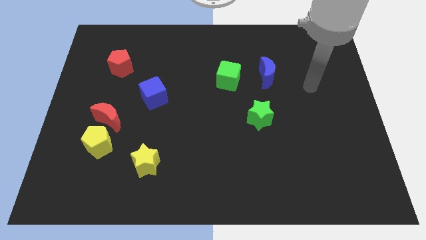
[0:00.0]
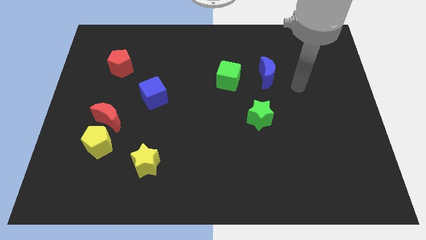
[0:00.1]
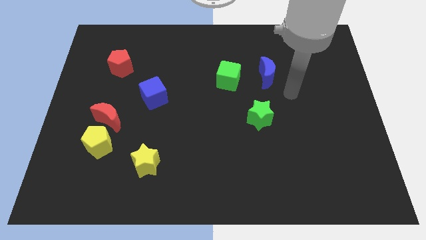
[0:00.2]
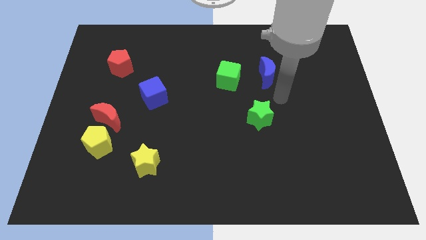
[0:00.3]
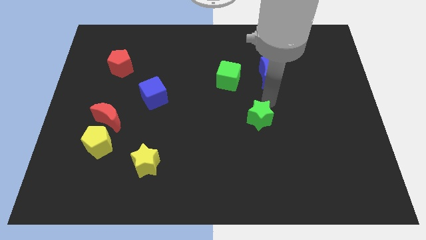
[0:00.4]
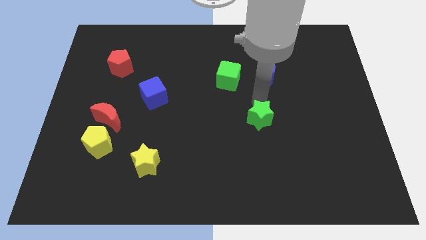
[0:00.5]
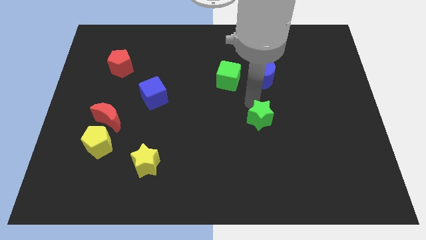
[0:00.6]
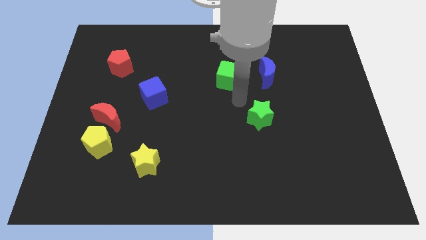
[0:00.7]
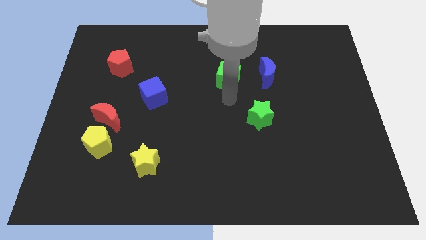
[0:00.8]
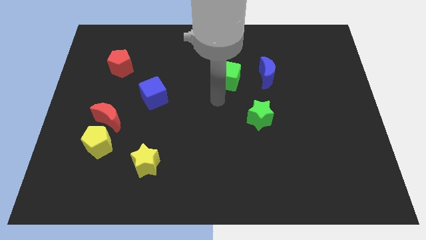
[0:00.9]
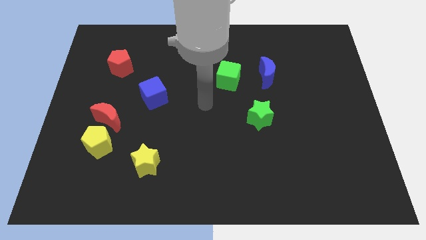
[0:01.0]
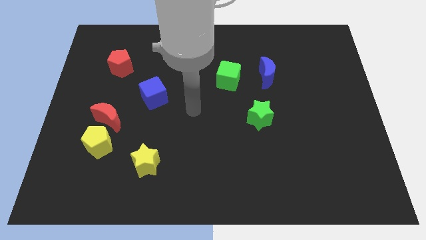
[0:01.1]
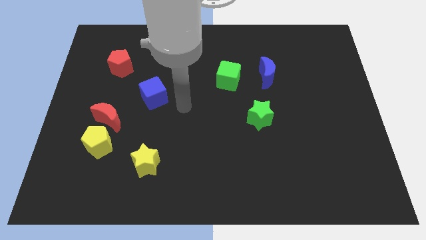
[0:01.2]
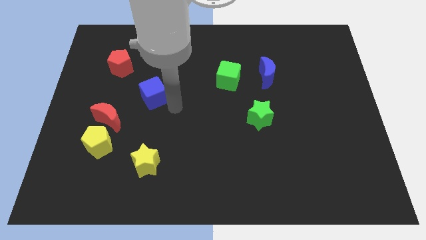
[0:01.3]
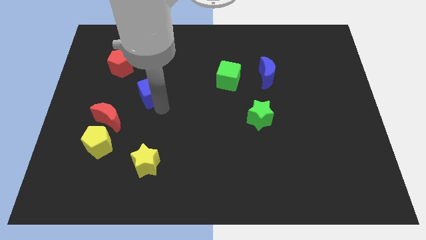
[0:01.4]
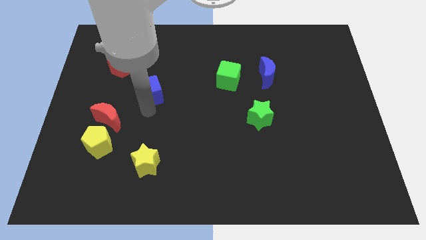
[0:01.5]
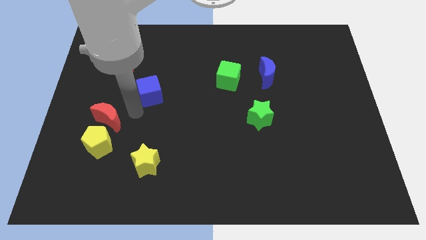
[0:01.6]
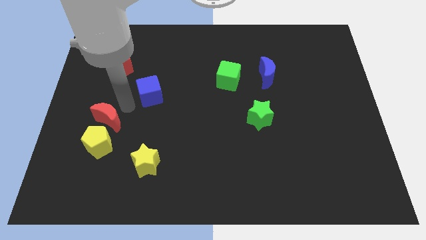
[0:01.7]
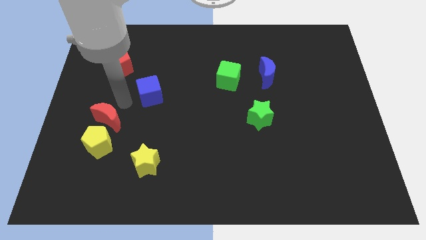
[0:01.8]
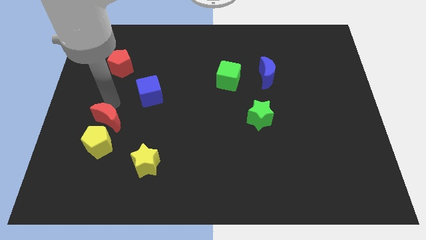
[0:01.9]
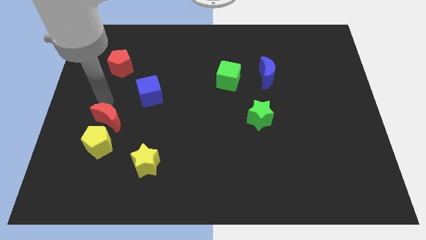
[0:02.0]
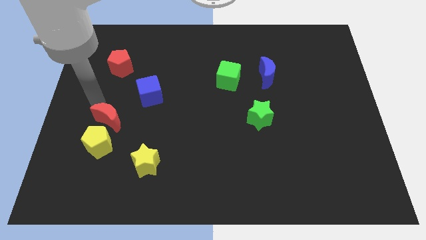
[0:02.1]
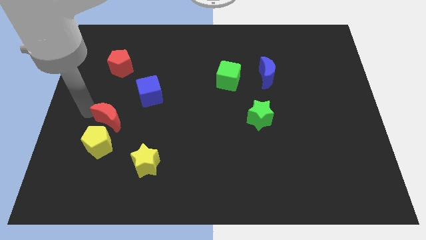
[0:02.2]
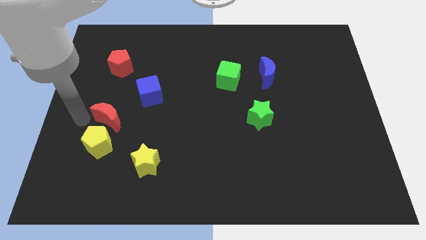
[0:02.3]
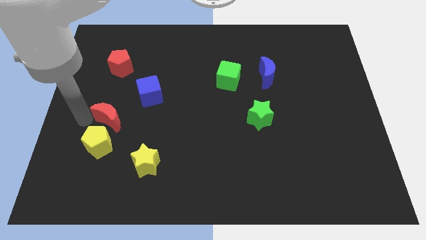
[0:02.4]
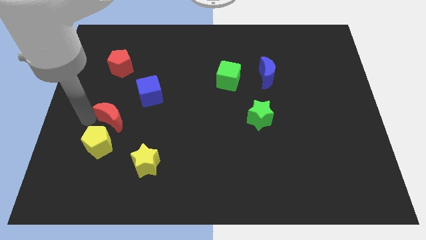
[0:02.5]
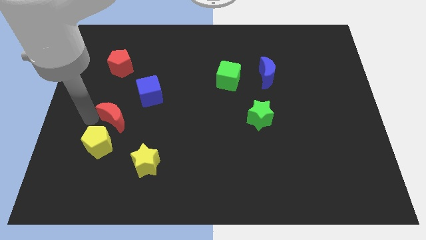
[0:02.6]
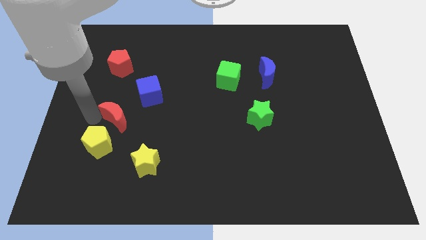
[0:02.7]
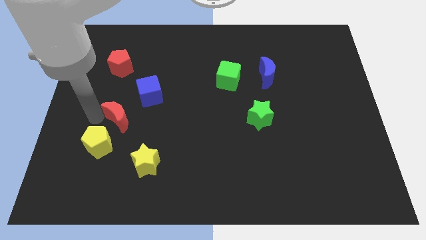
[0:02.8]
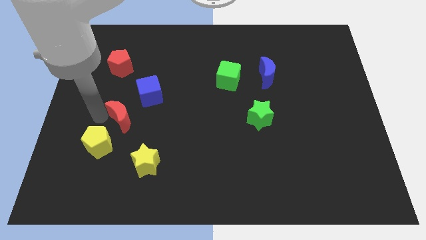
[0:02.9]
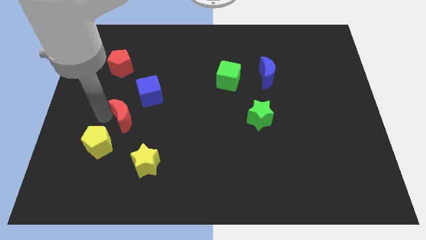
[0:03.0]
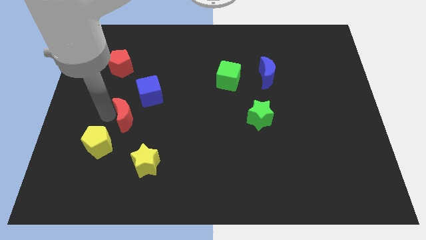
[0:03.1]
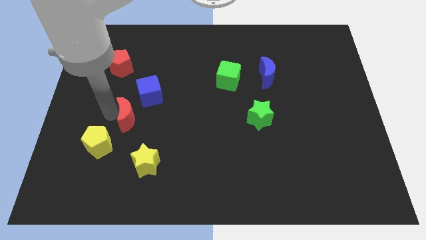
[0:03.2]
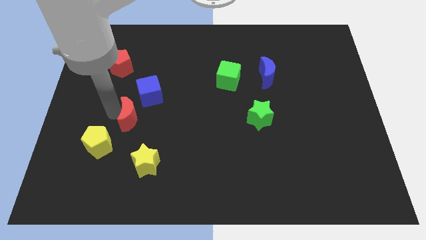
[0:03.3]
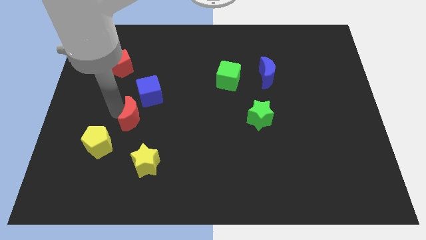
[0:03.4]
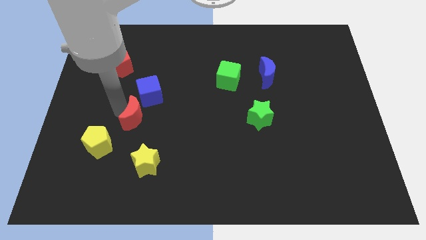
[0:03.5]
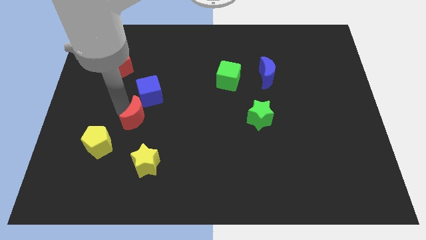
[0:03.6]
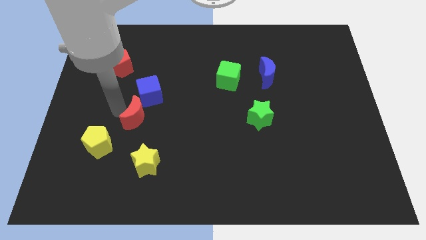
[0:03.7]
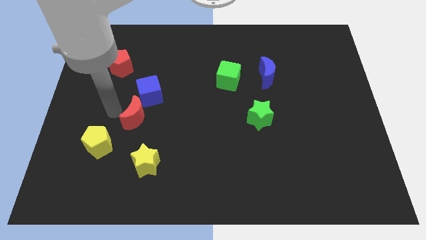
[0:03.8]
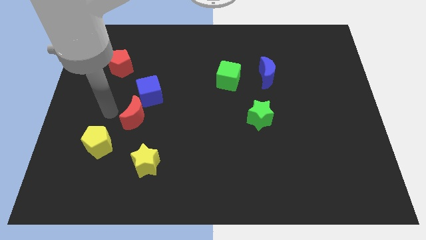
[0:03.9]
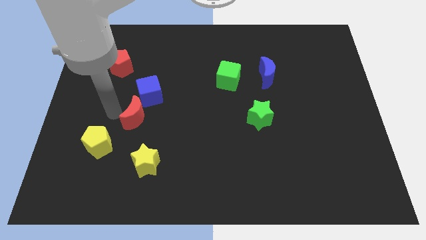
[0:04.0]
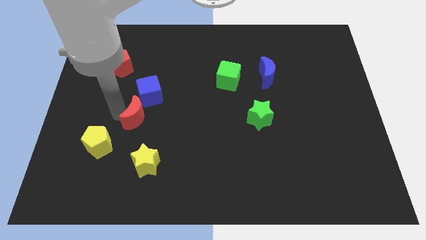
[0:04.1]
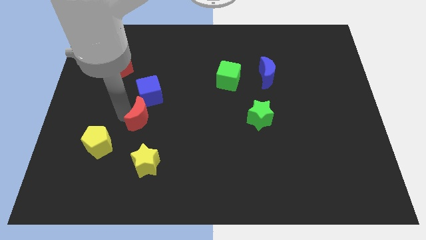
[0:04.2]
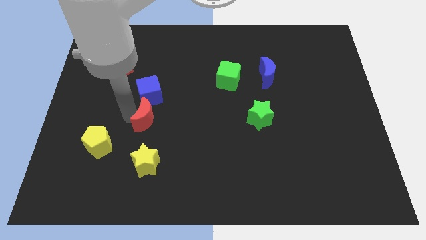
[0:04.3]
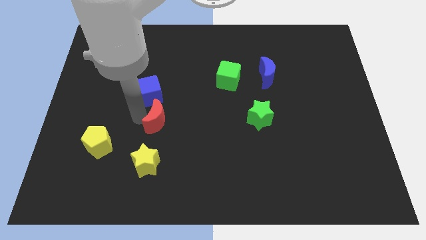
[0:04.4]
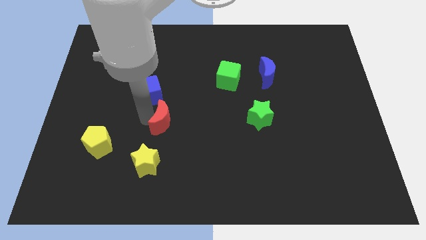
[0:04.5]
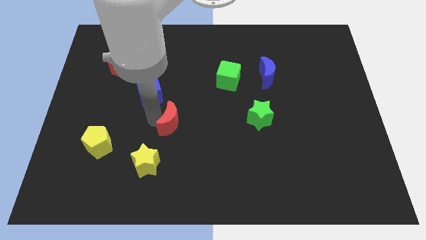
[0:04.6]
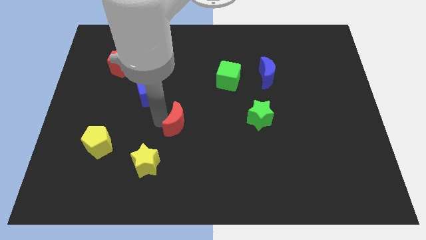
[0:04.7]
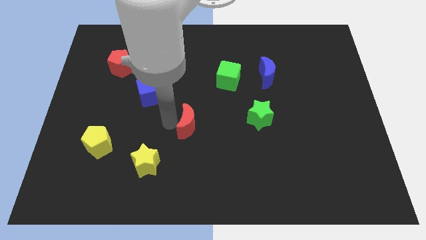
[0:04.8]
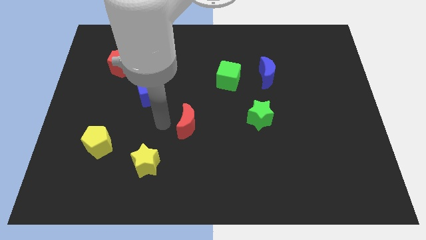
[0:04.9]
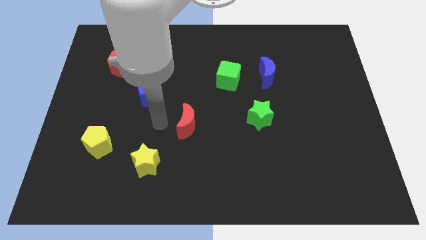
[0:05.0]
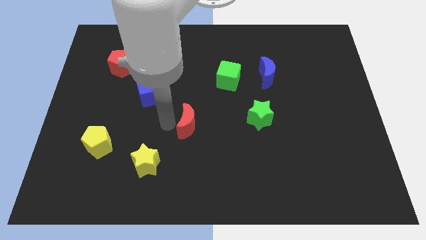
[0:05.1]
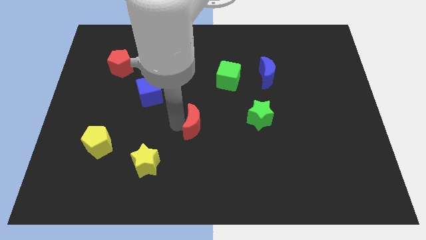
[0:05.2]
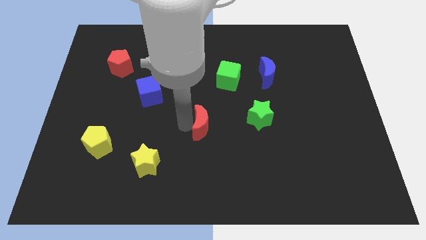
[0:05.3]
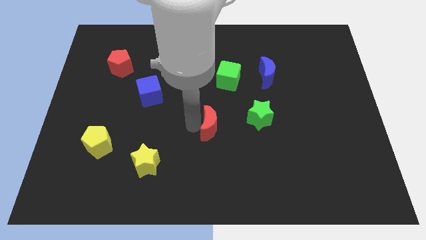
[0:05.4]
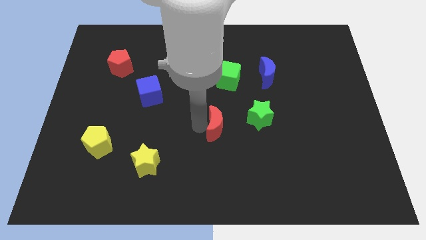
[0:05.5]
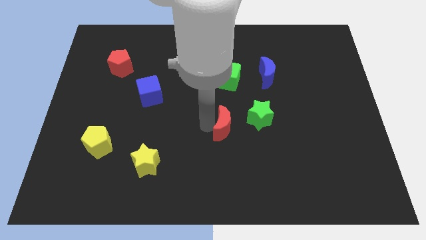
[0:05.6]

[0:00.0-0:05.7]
put the red moon diagonally down and to the left of the green star

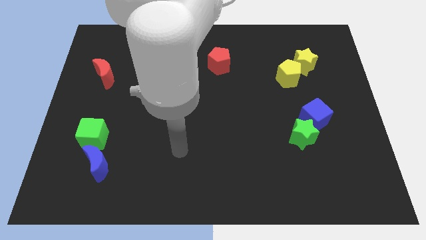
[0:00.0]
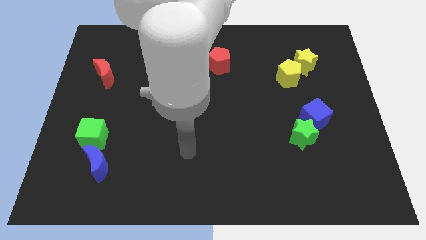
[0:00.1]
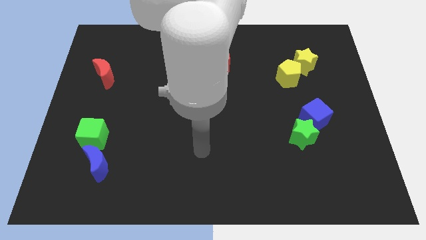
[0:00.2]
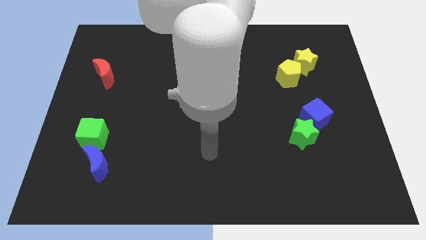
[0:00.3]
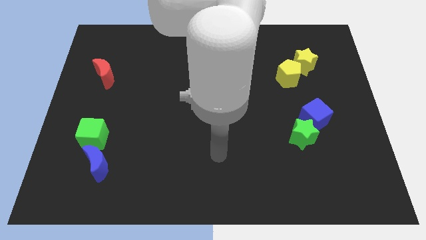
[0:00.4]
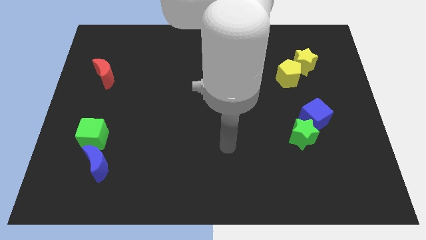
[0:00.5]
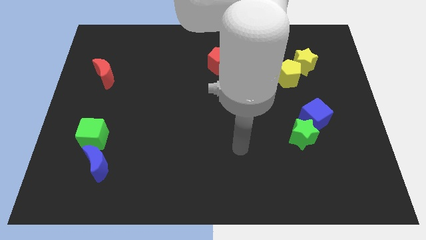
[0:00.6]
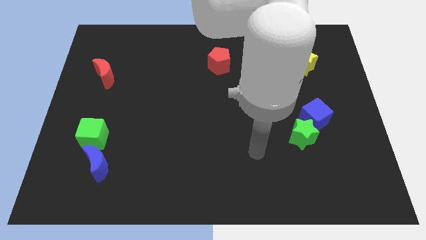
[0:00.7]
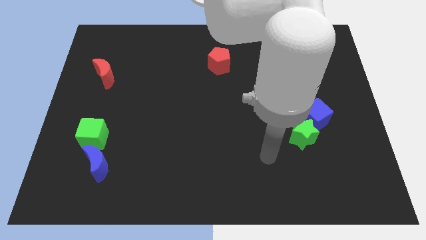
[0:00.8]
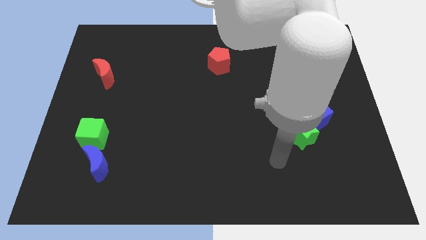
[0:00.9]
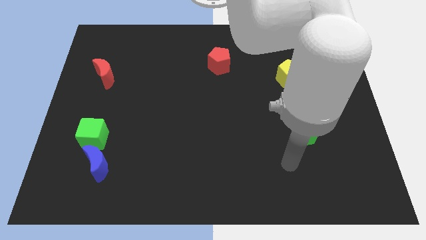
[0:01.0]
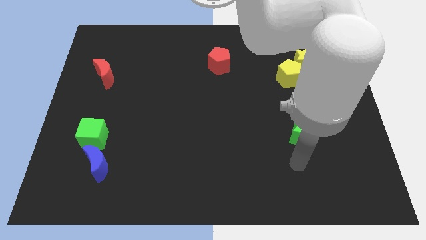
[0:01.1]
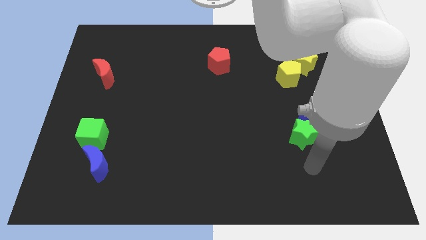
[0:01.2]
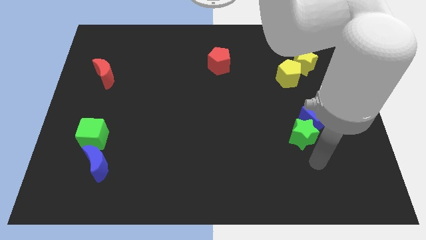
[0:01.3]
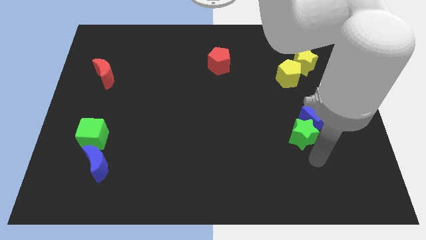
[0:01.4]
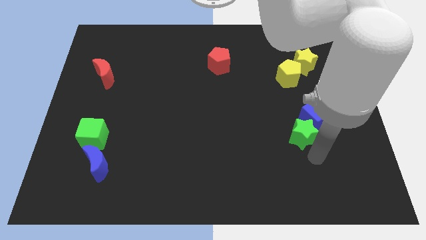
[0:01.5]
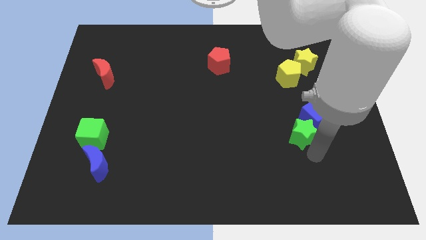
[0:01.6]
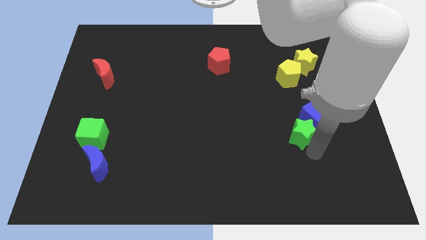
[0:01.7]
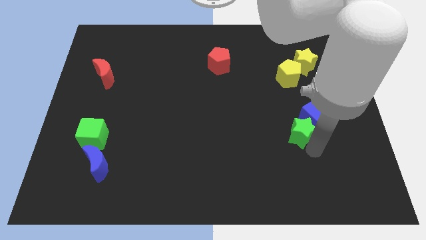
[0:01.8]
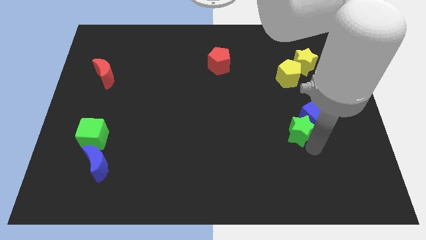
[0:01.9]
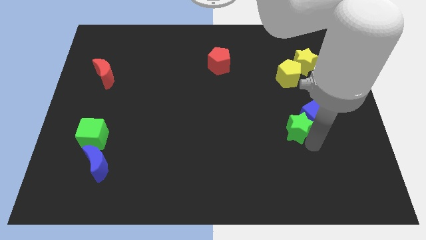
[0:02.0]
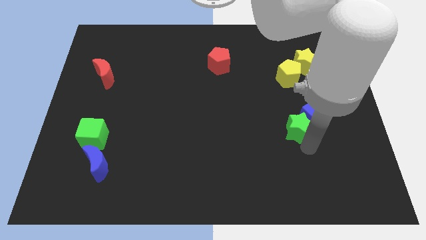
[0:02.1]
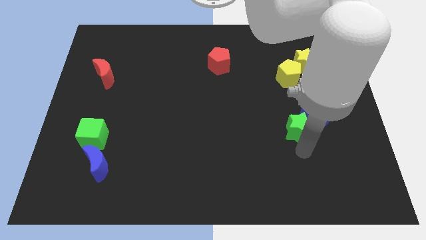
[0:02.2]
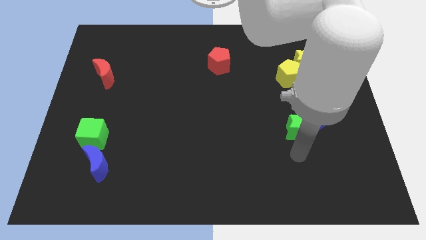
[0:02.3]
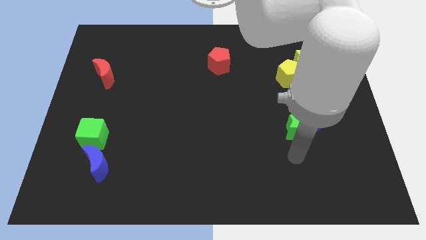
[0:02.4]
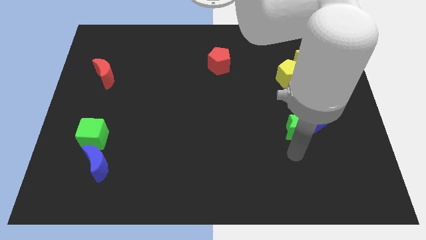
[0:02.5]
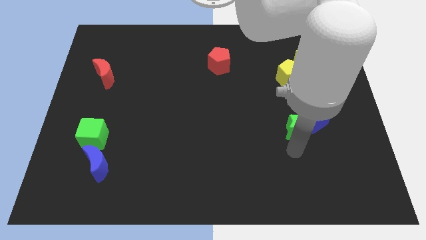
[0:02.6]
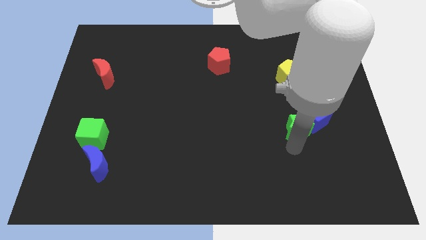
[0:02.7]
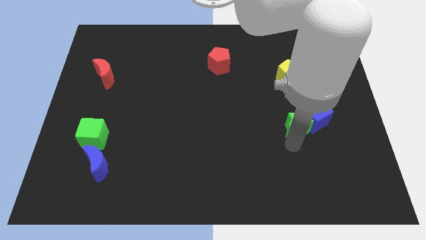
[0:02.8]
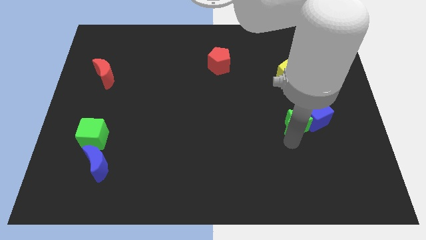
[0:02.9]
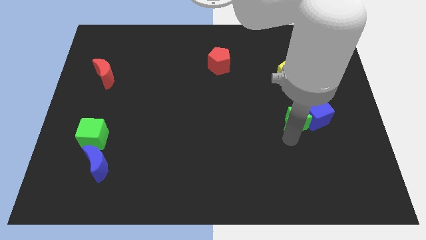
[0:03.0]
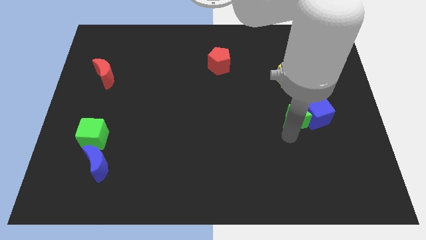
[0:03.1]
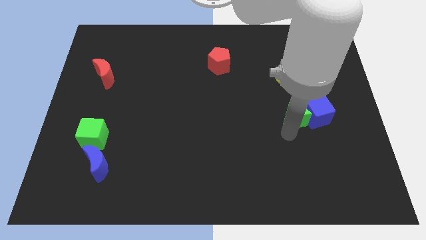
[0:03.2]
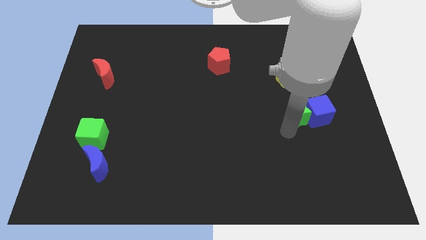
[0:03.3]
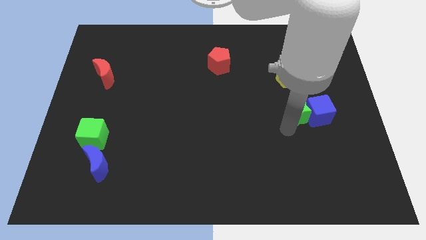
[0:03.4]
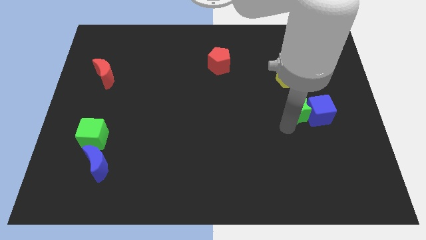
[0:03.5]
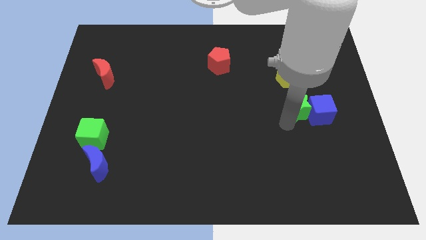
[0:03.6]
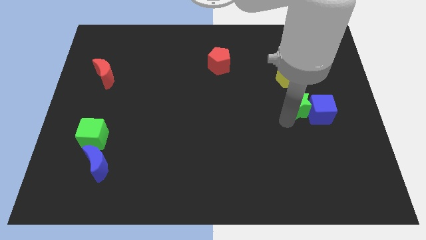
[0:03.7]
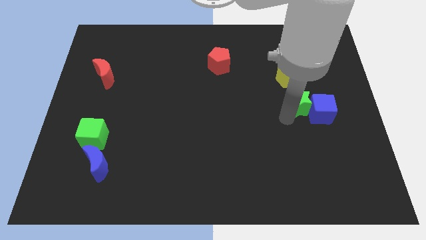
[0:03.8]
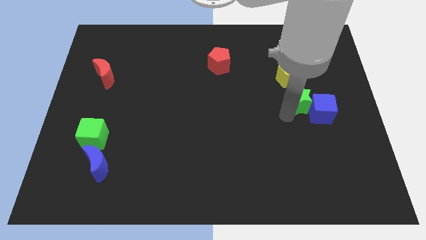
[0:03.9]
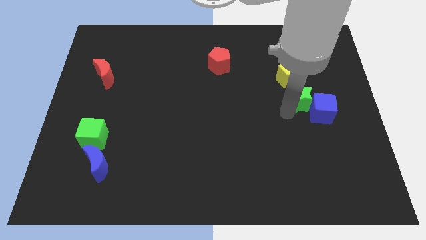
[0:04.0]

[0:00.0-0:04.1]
move the green star diagonally down and to the right of the yellow pentagon
